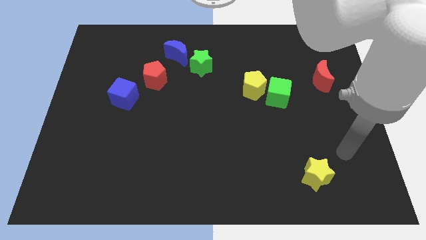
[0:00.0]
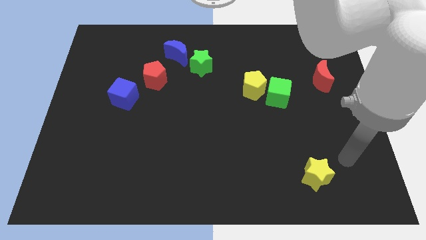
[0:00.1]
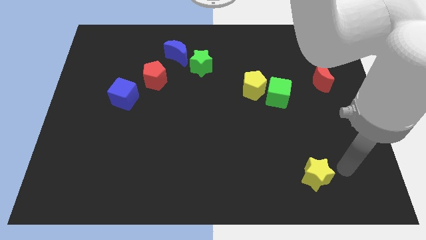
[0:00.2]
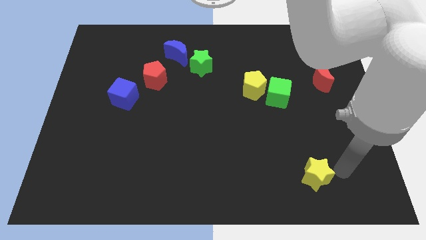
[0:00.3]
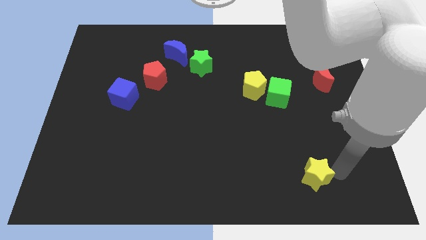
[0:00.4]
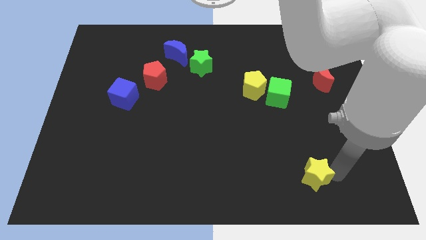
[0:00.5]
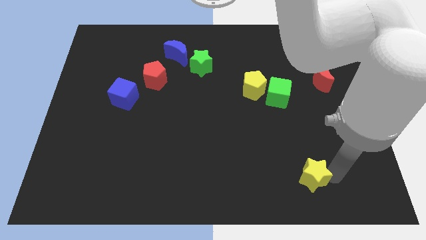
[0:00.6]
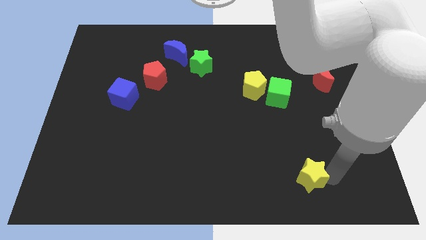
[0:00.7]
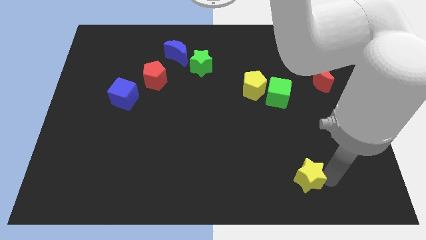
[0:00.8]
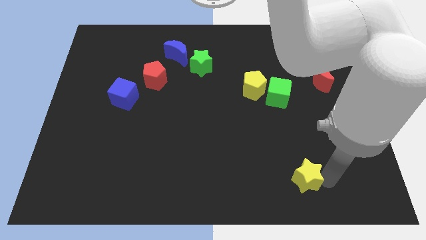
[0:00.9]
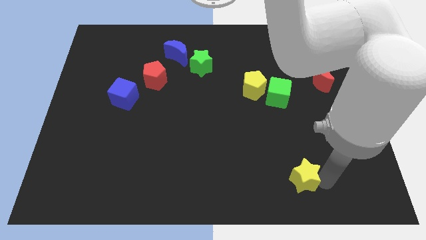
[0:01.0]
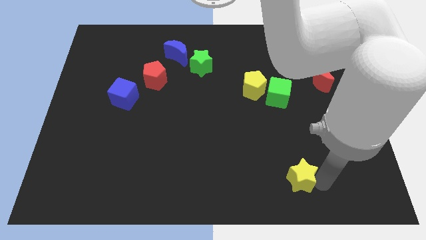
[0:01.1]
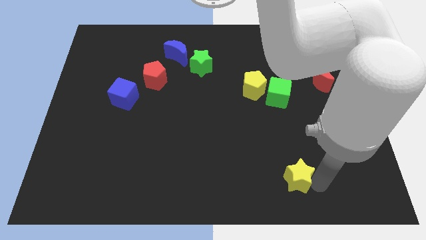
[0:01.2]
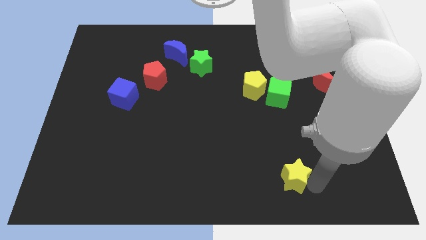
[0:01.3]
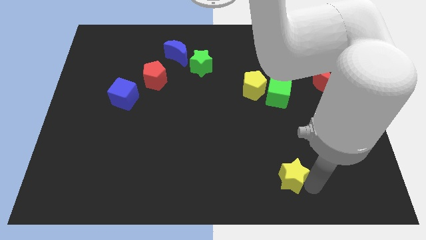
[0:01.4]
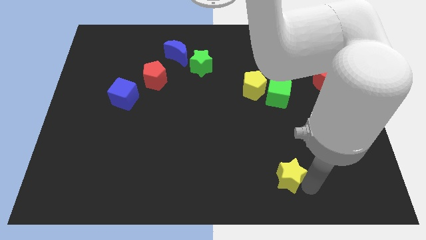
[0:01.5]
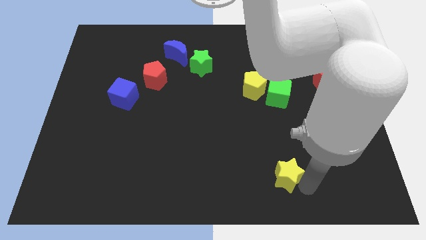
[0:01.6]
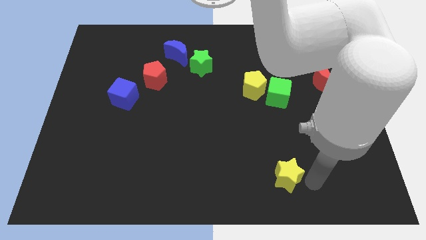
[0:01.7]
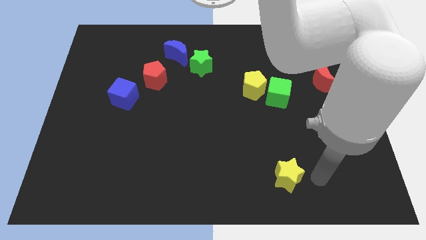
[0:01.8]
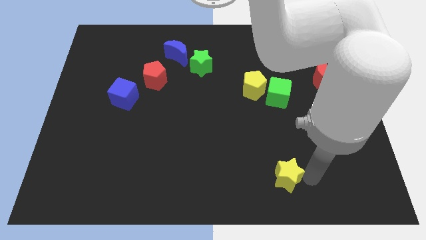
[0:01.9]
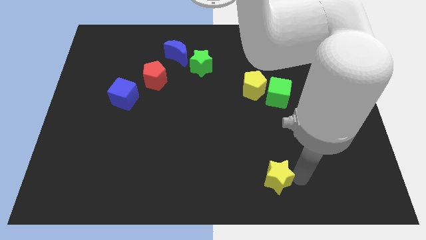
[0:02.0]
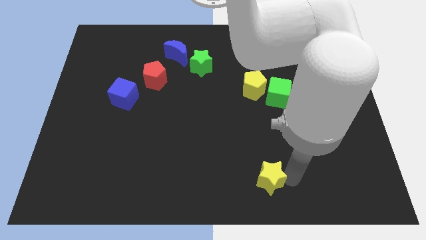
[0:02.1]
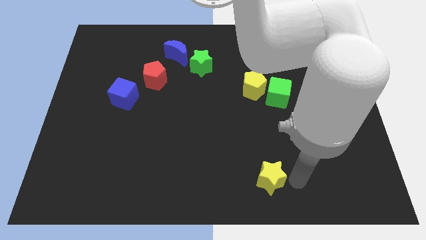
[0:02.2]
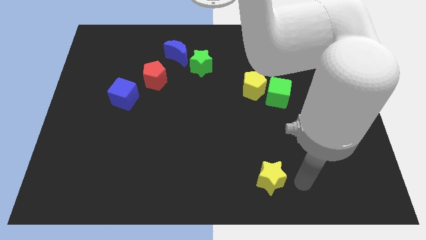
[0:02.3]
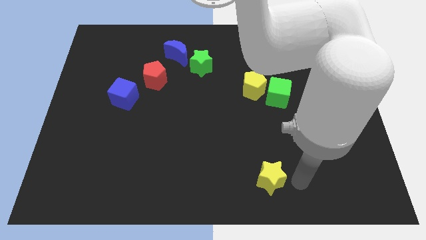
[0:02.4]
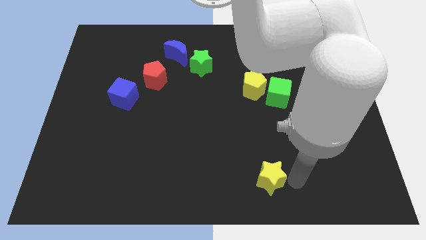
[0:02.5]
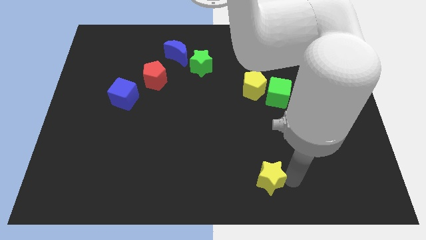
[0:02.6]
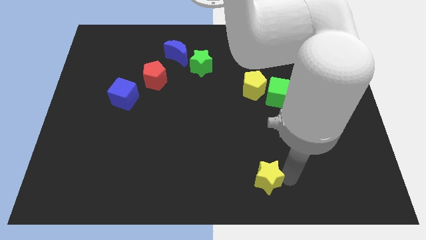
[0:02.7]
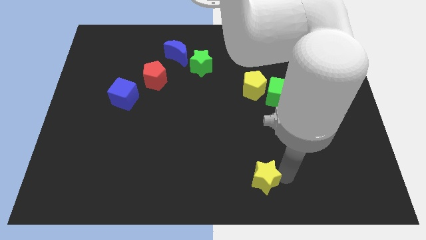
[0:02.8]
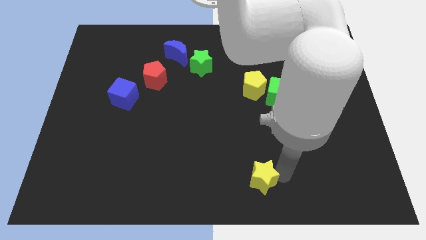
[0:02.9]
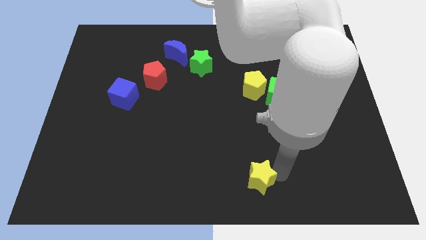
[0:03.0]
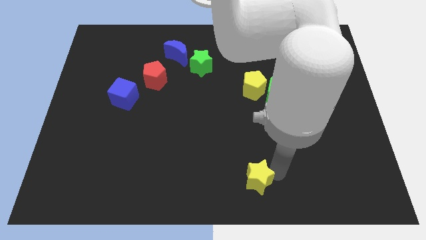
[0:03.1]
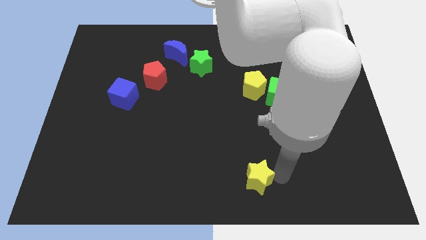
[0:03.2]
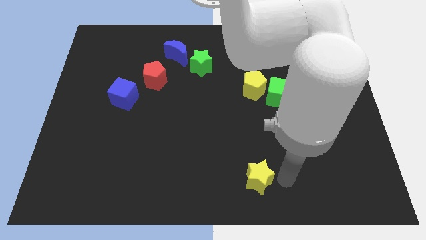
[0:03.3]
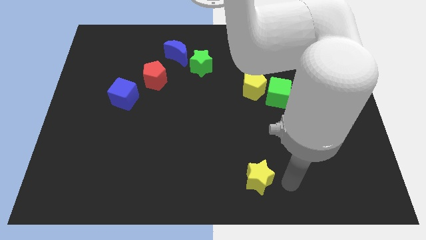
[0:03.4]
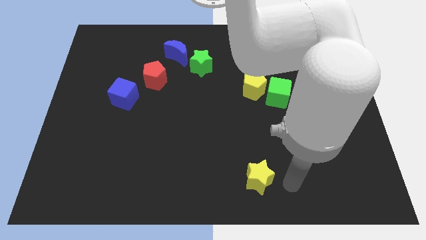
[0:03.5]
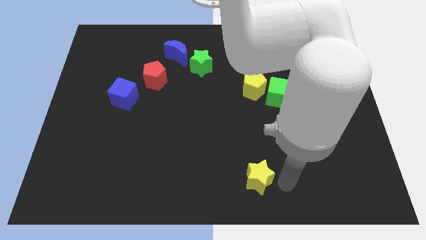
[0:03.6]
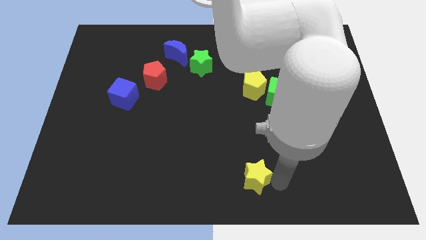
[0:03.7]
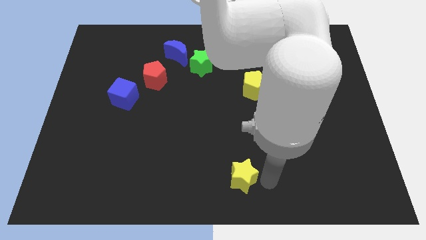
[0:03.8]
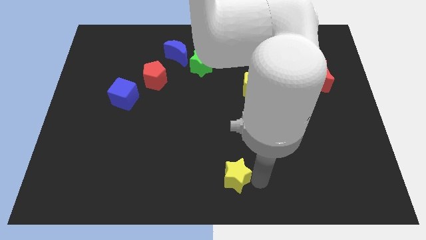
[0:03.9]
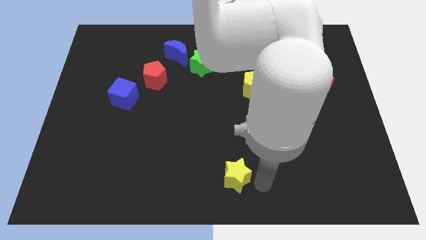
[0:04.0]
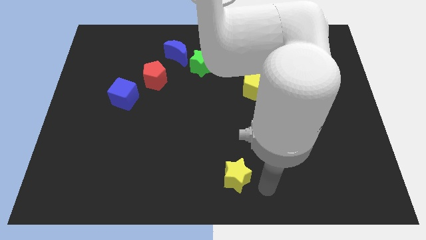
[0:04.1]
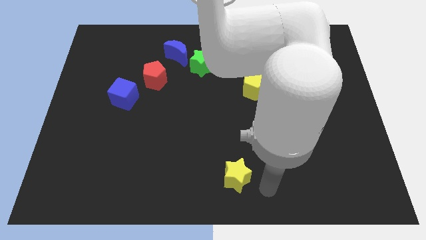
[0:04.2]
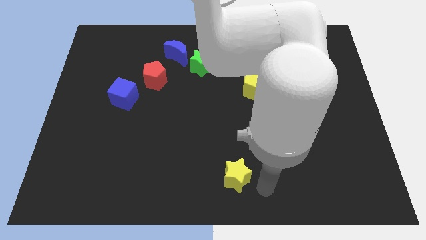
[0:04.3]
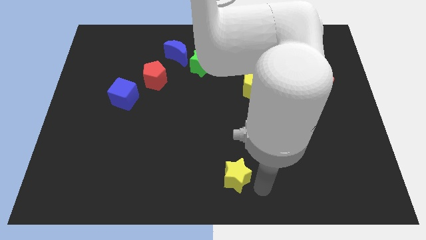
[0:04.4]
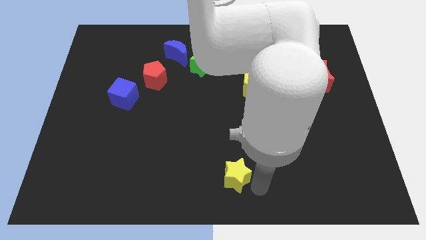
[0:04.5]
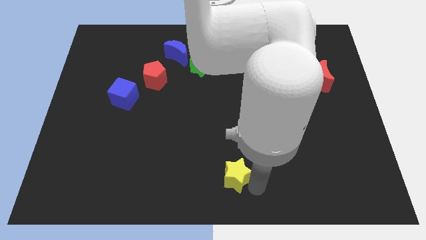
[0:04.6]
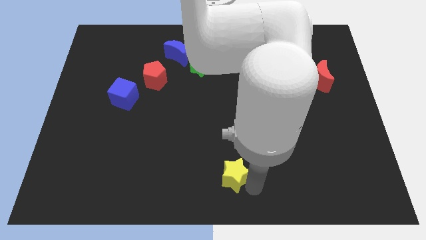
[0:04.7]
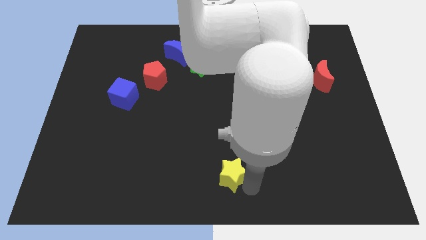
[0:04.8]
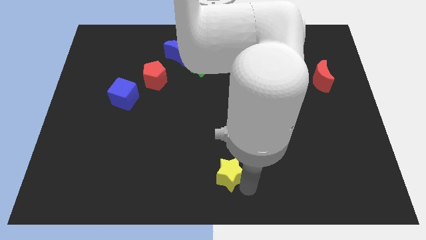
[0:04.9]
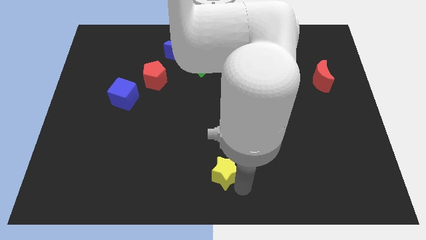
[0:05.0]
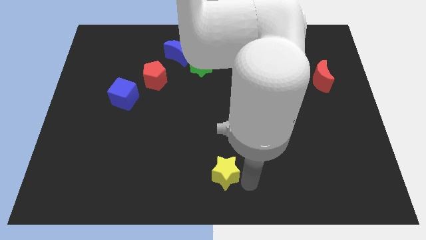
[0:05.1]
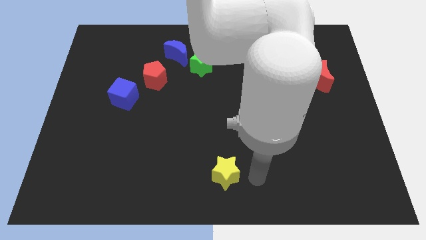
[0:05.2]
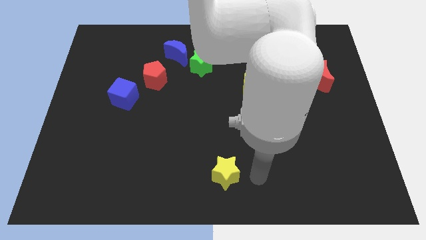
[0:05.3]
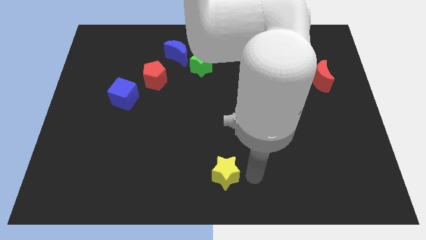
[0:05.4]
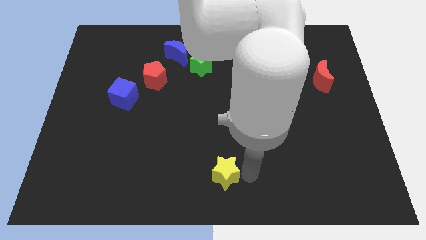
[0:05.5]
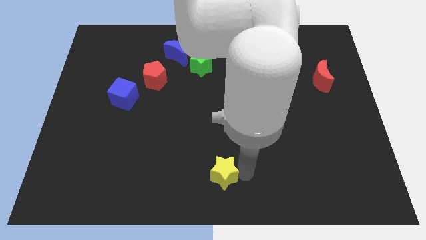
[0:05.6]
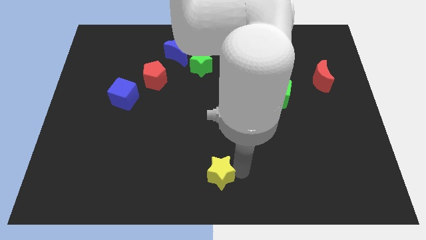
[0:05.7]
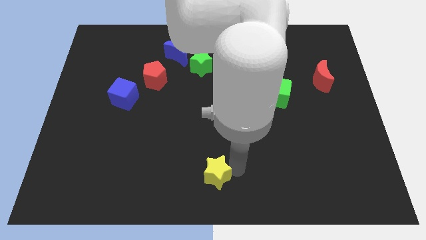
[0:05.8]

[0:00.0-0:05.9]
move the yellow star left

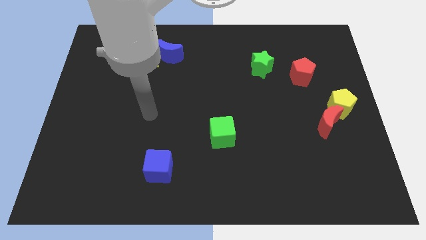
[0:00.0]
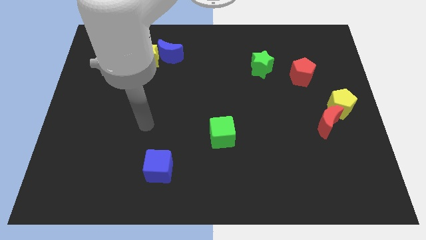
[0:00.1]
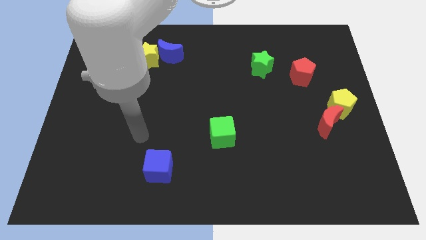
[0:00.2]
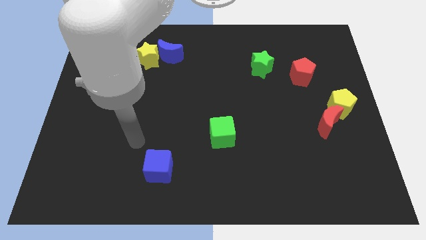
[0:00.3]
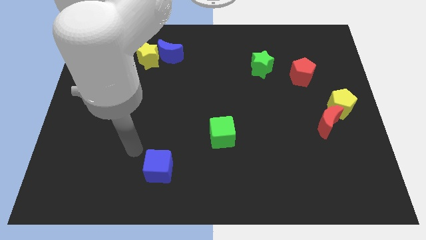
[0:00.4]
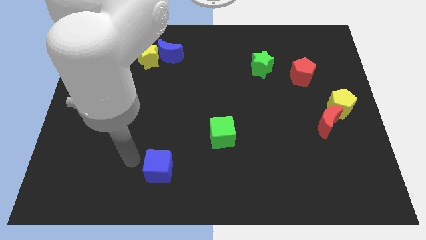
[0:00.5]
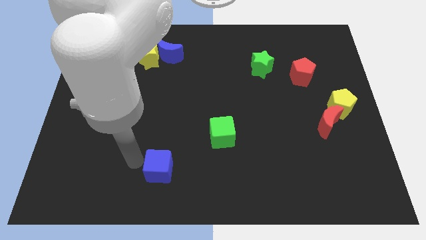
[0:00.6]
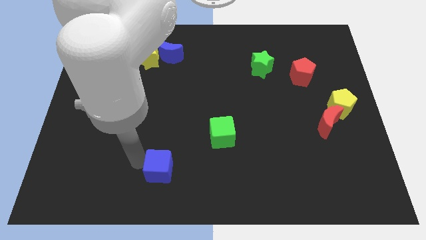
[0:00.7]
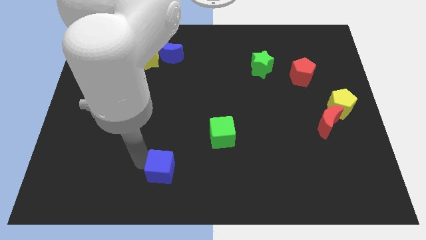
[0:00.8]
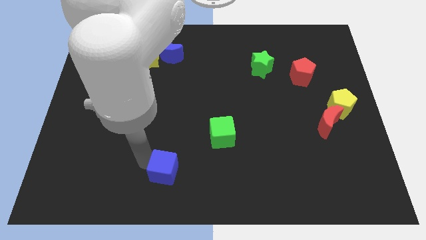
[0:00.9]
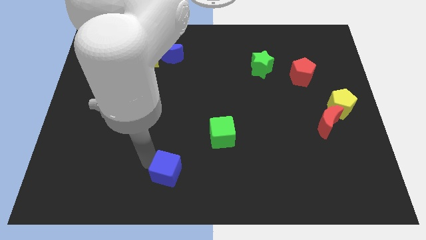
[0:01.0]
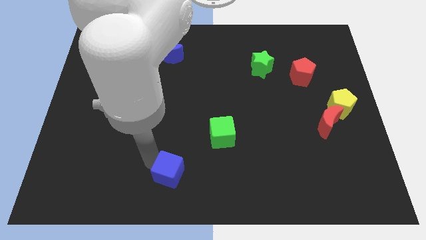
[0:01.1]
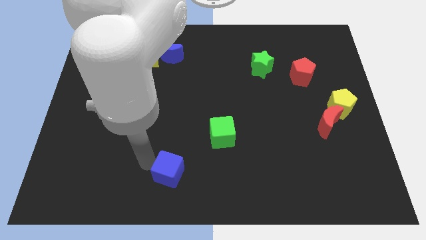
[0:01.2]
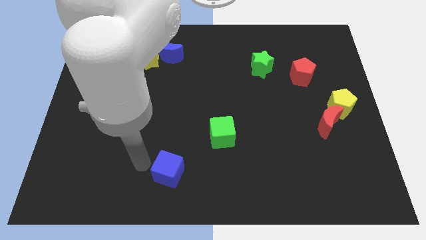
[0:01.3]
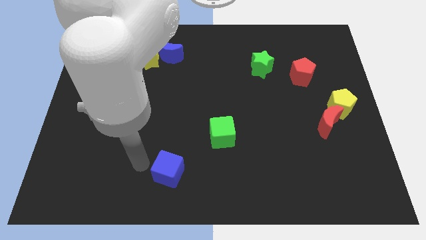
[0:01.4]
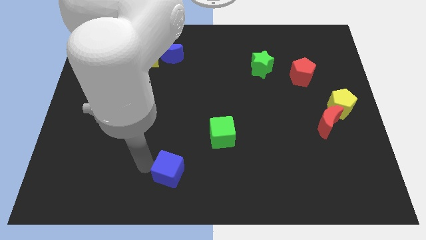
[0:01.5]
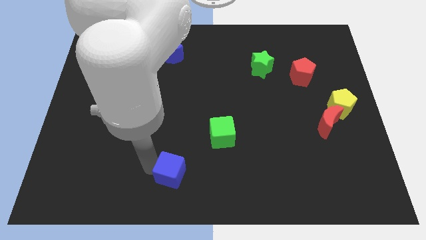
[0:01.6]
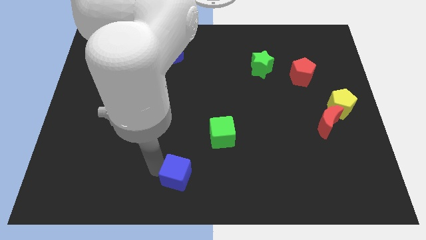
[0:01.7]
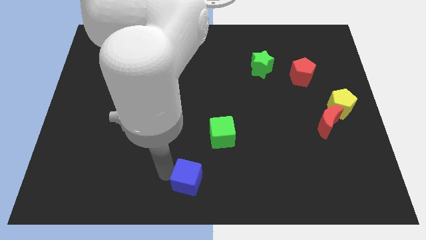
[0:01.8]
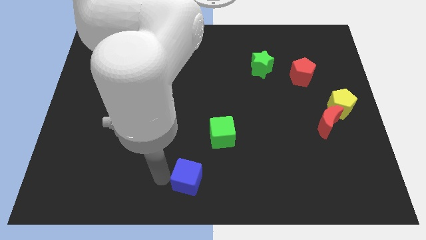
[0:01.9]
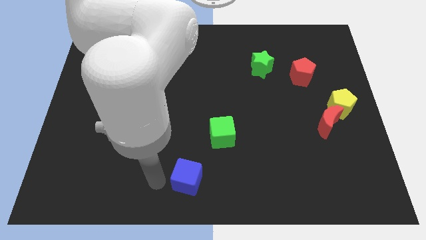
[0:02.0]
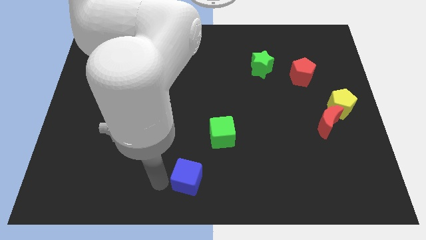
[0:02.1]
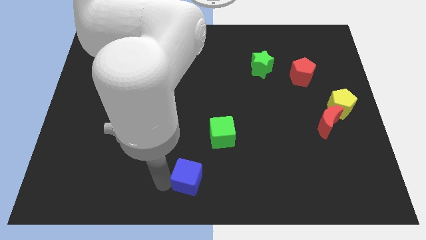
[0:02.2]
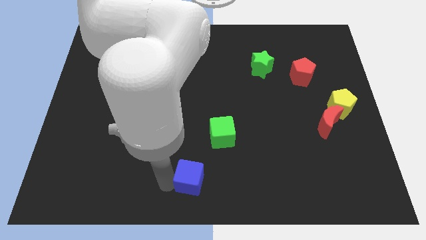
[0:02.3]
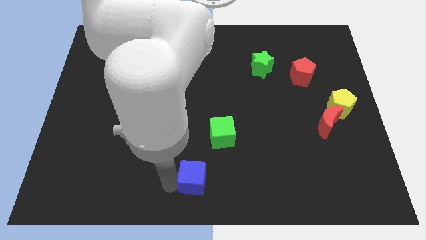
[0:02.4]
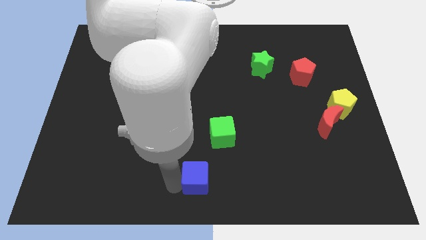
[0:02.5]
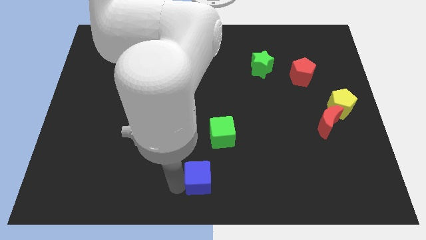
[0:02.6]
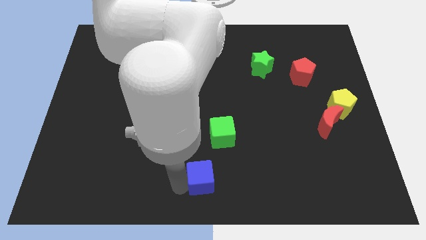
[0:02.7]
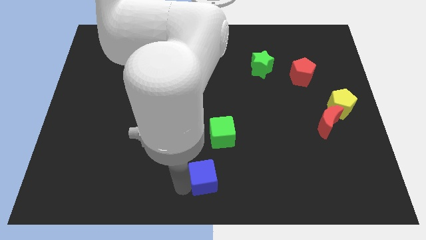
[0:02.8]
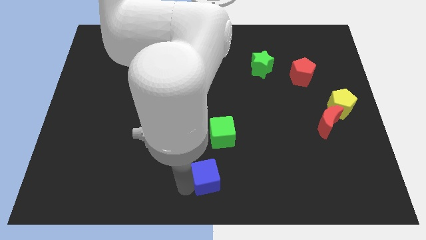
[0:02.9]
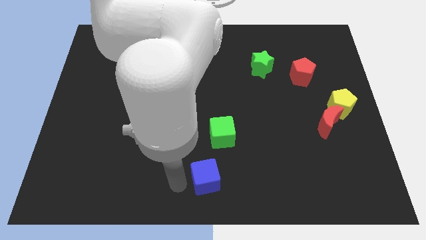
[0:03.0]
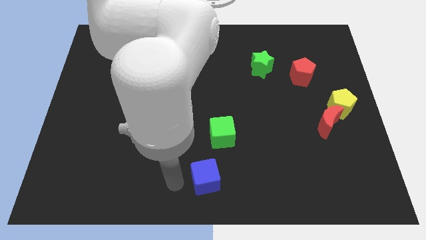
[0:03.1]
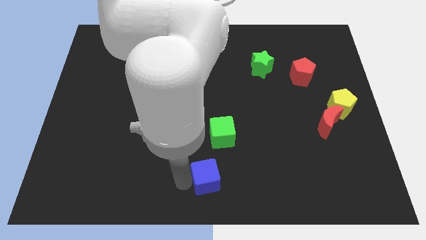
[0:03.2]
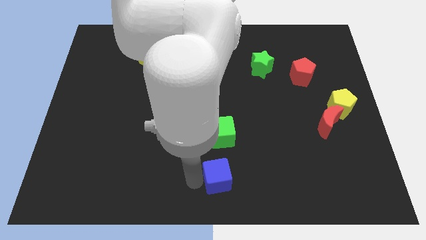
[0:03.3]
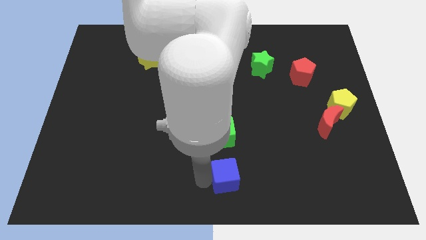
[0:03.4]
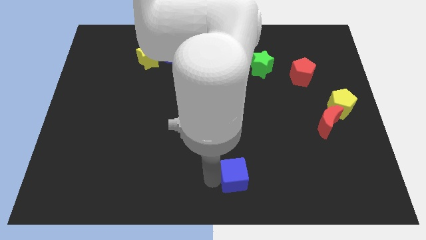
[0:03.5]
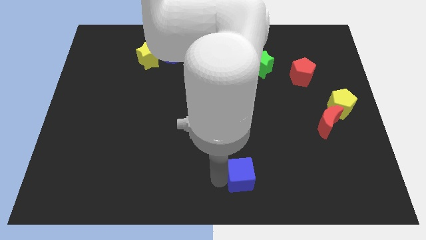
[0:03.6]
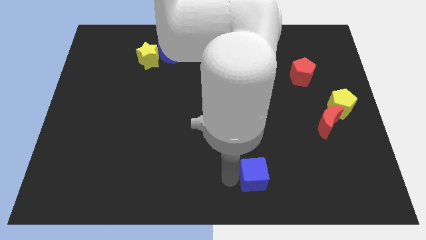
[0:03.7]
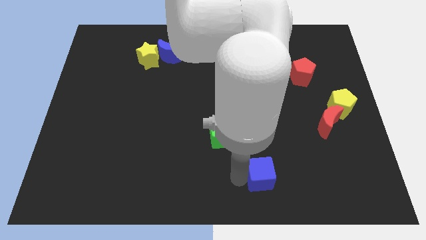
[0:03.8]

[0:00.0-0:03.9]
slide the blue cube to the right
